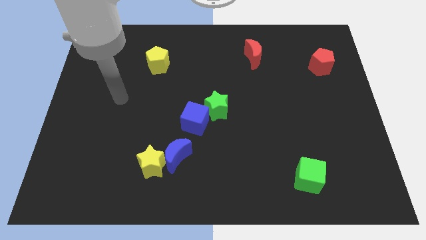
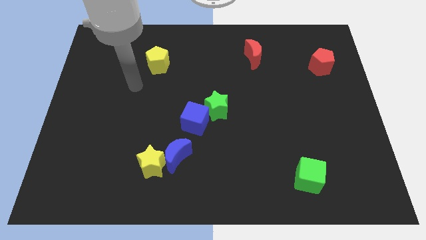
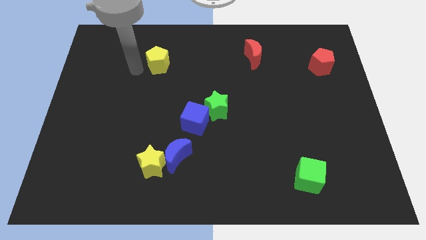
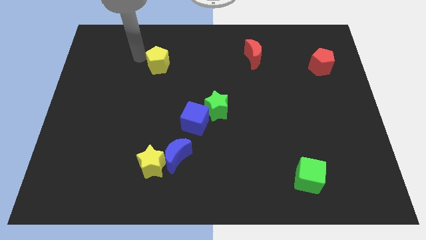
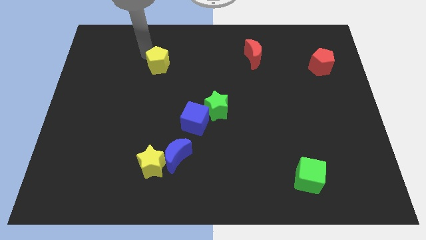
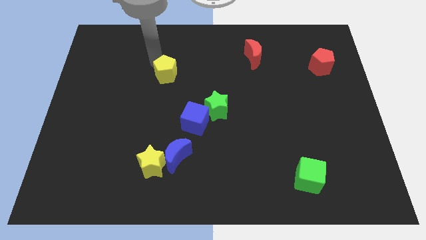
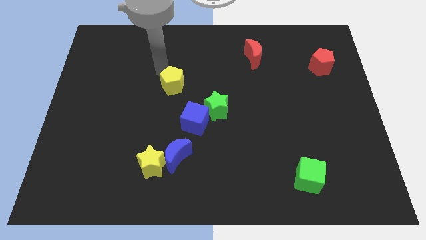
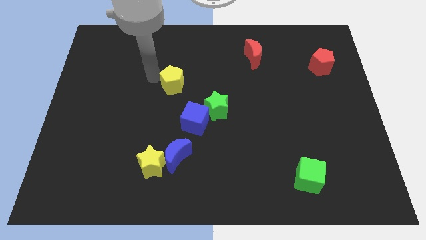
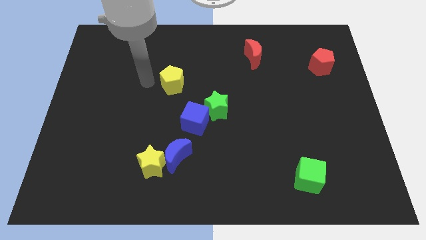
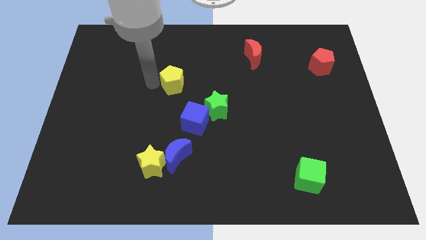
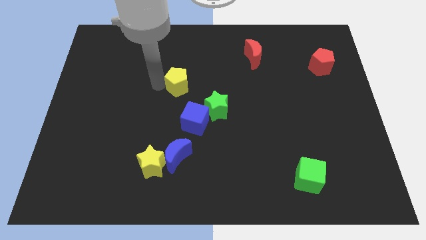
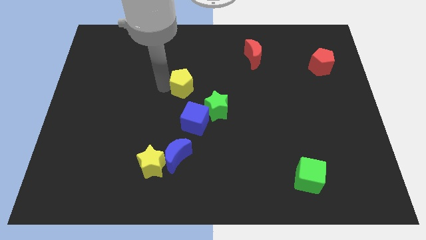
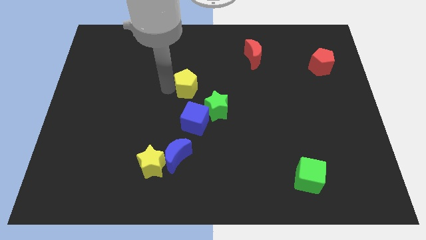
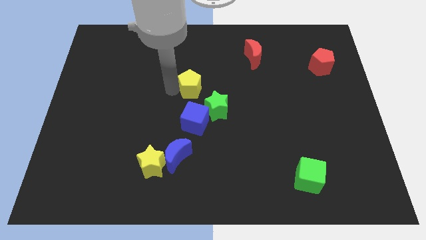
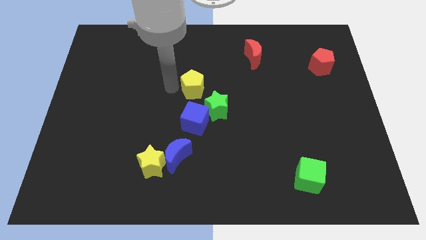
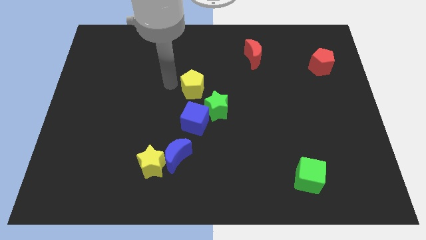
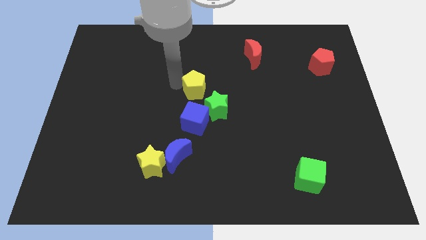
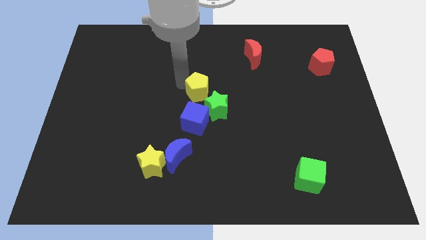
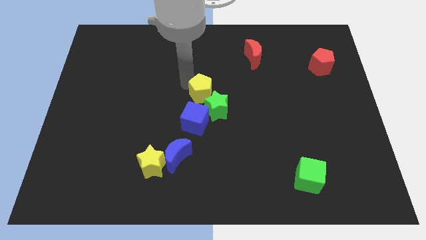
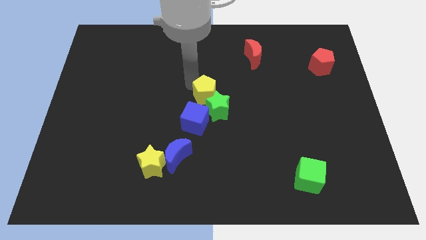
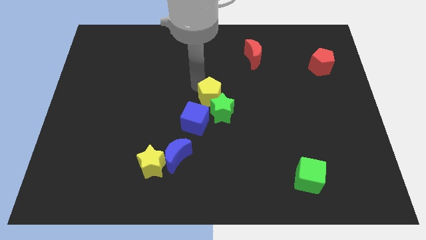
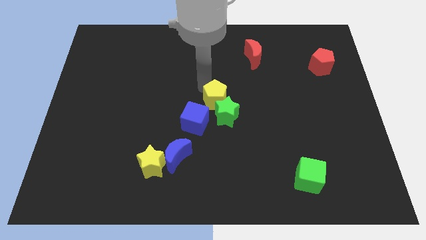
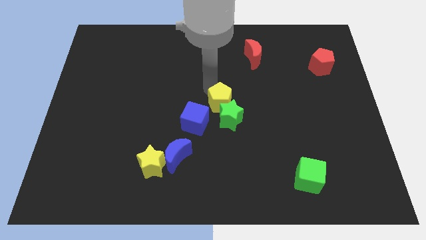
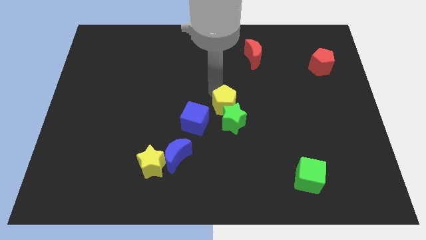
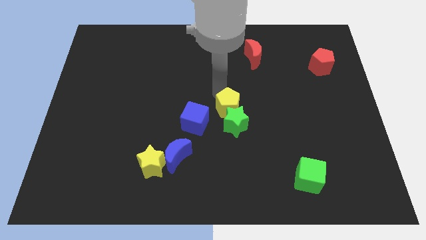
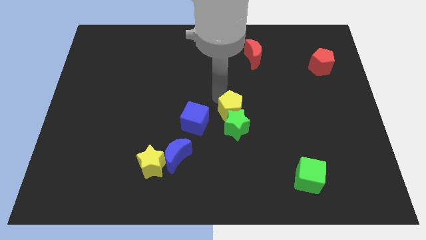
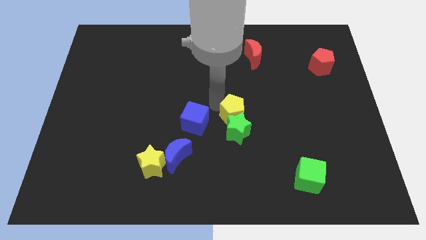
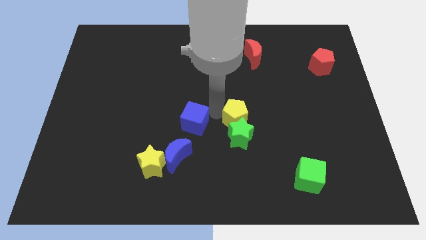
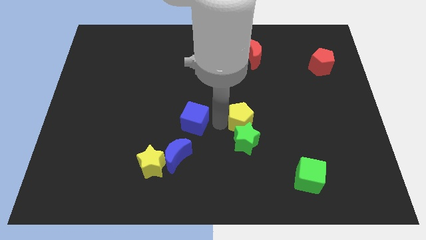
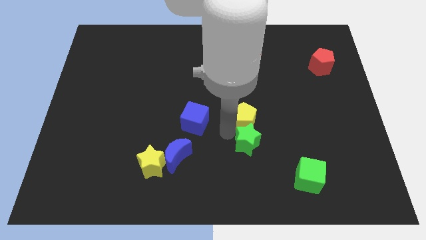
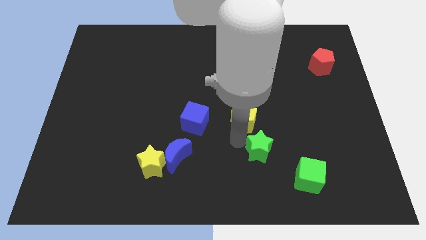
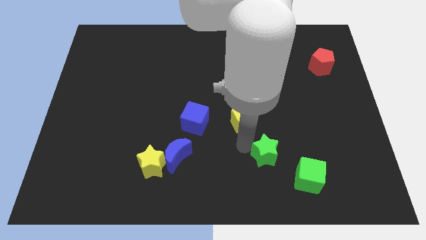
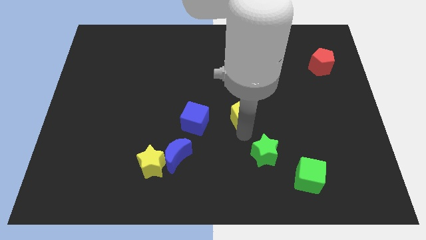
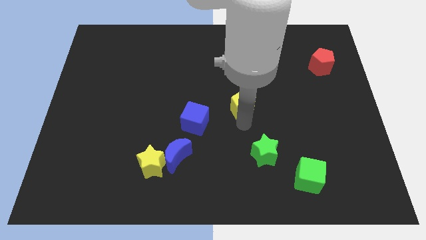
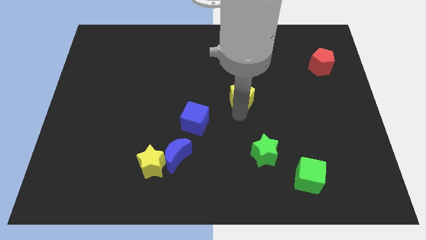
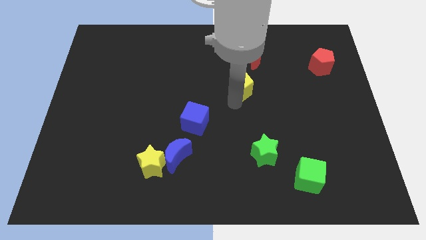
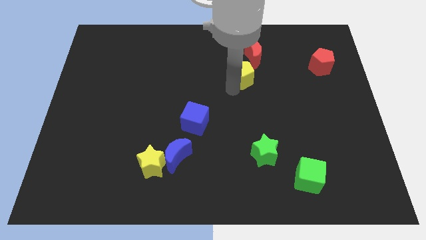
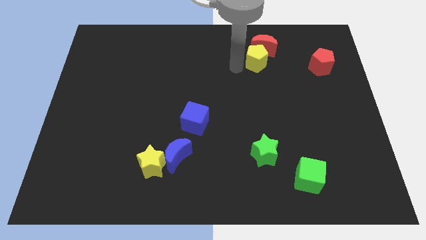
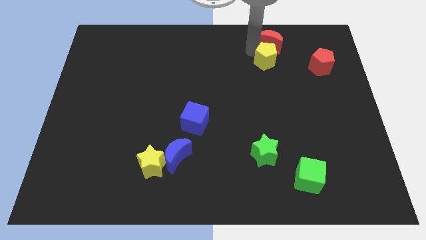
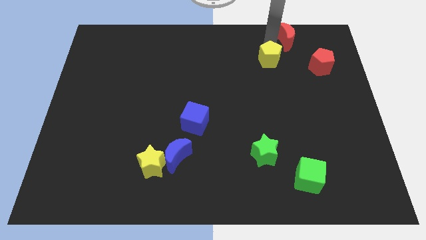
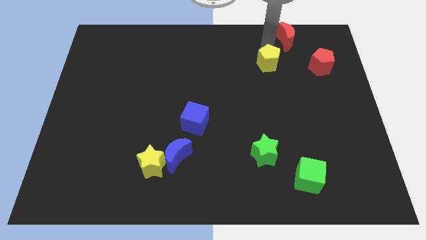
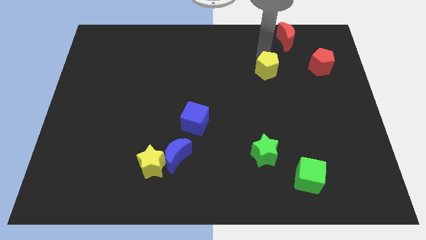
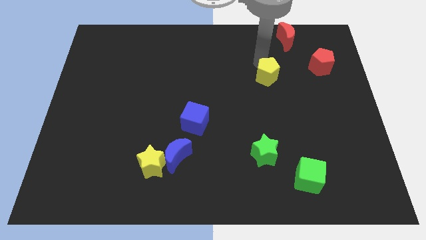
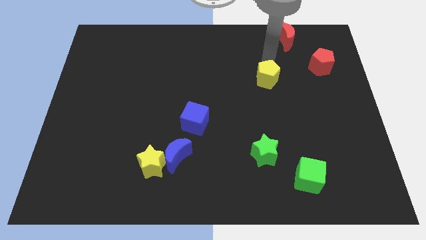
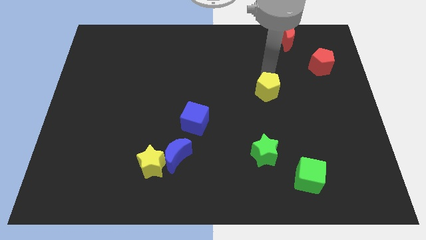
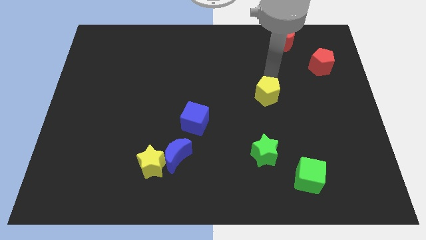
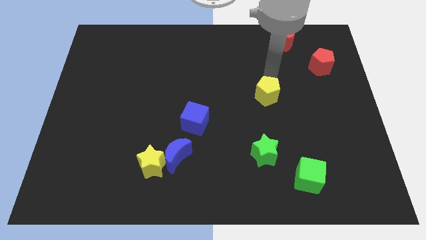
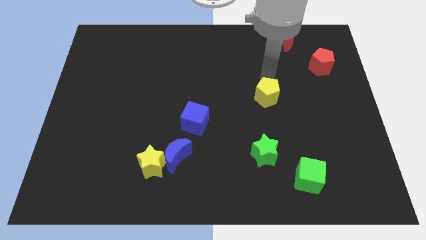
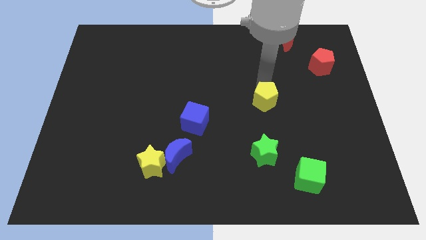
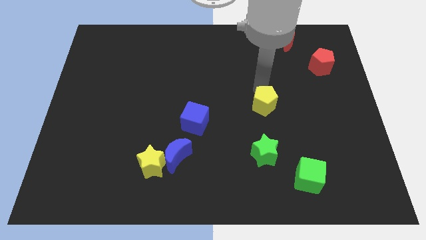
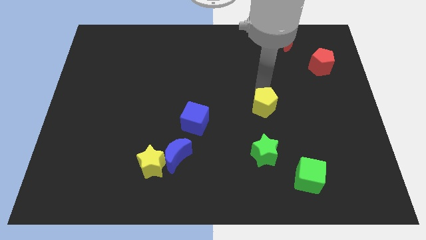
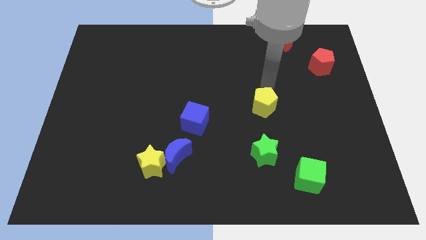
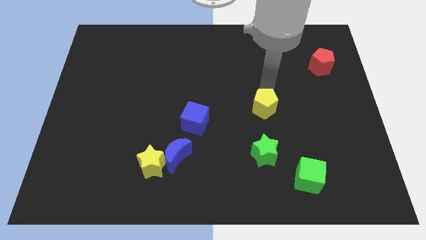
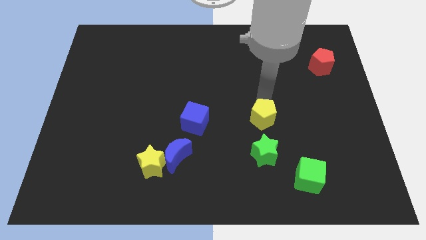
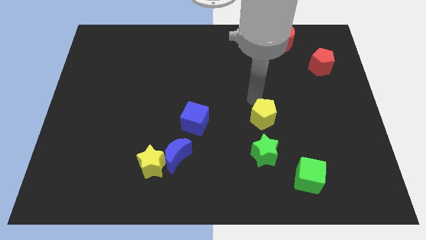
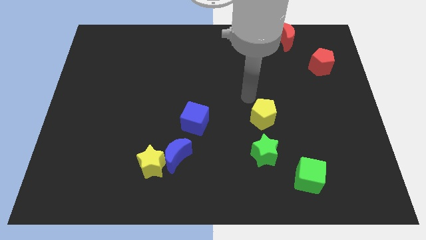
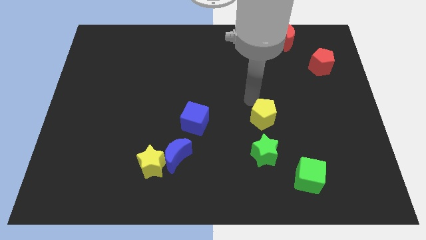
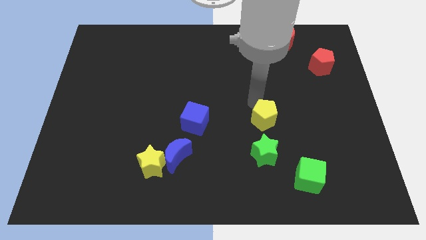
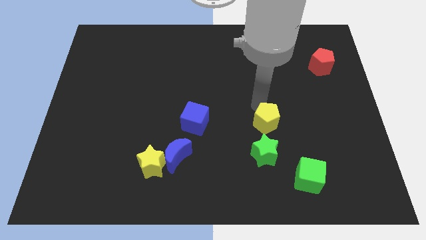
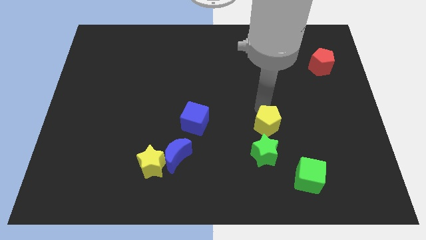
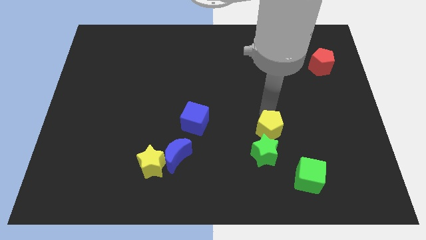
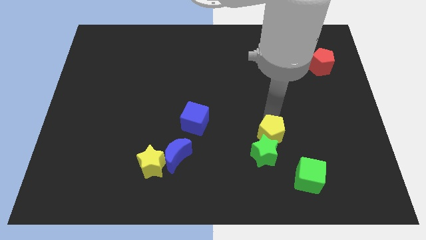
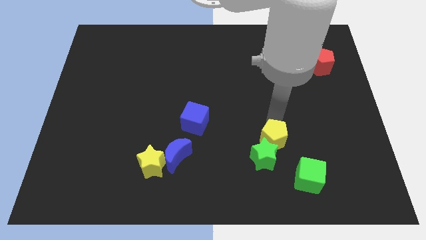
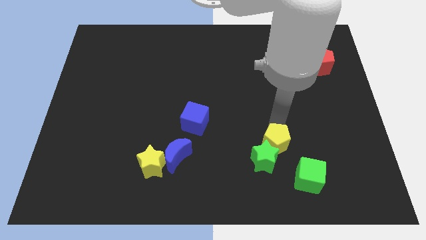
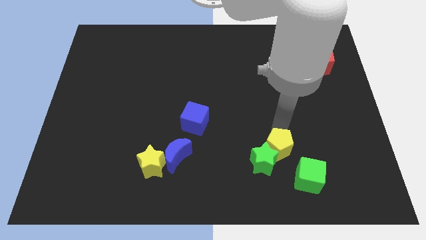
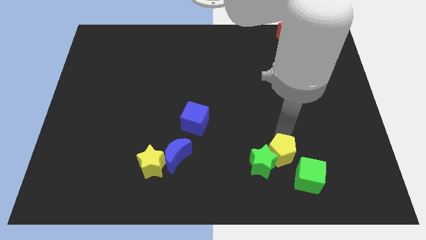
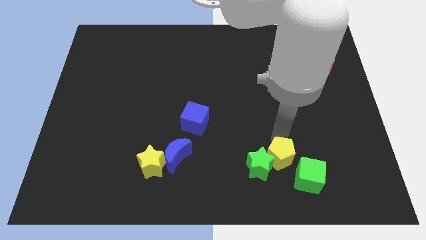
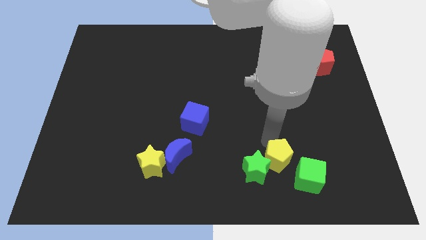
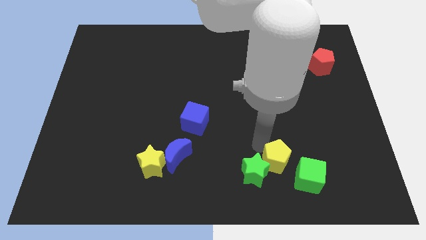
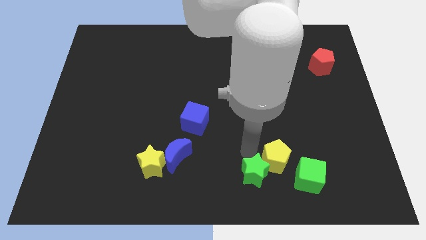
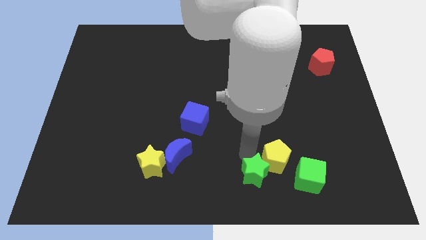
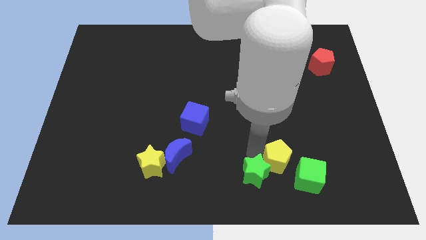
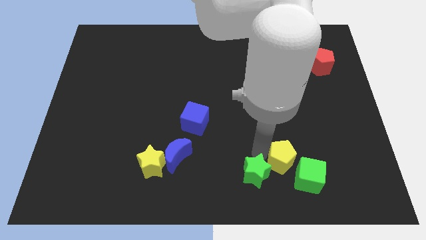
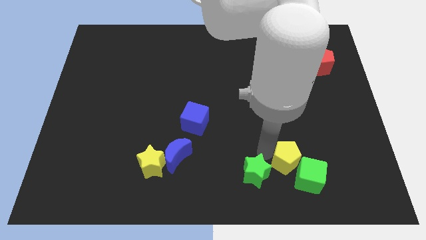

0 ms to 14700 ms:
slide the yellow pentagon next to the green cube
